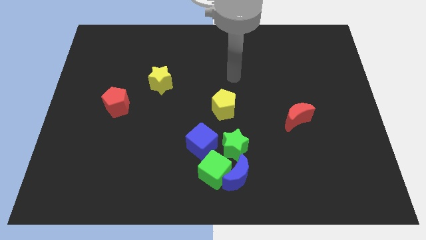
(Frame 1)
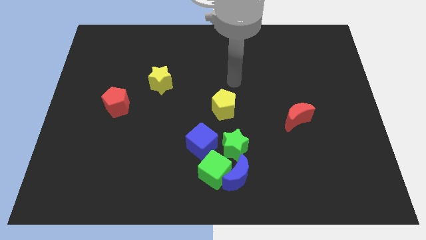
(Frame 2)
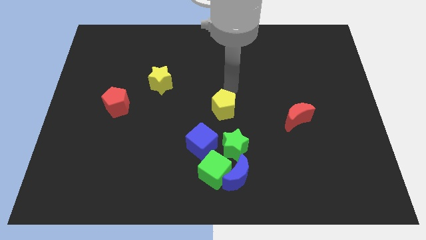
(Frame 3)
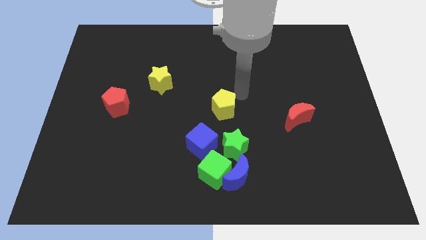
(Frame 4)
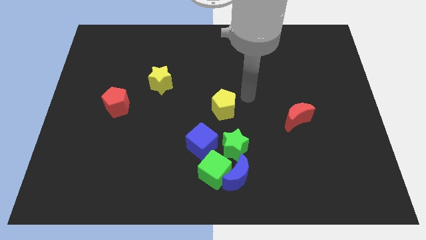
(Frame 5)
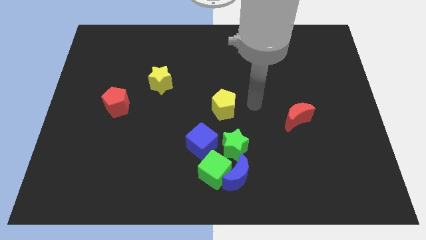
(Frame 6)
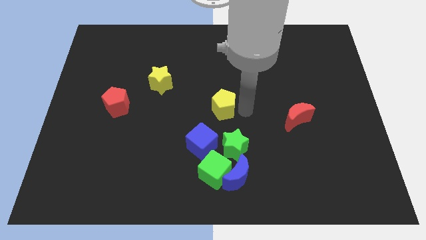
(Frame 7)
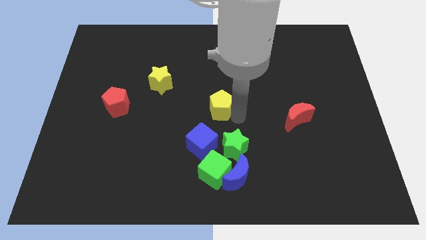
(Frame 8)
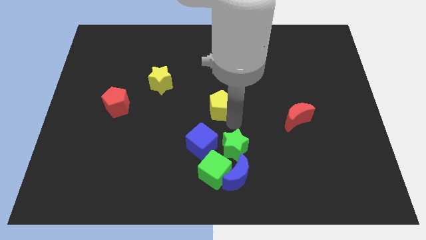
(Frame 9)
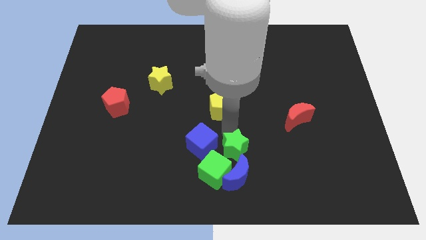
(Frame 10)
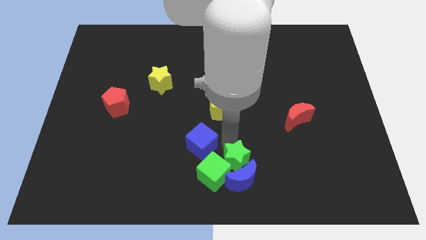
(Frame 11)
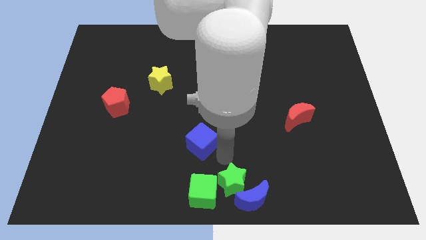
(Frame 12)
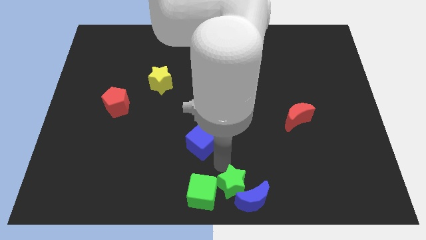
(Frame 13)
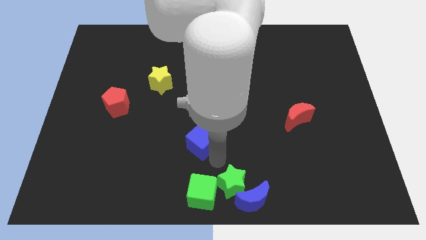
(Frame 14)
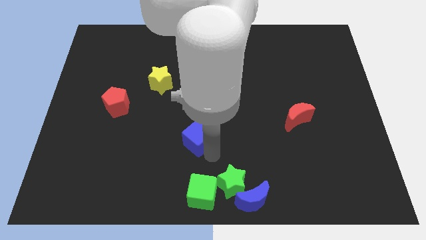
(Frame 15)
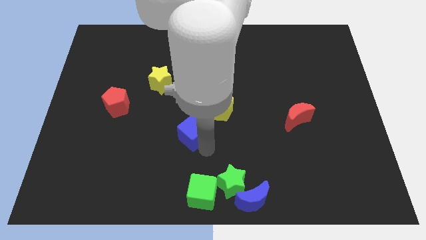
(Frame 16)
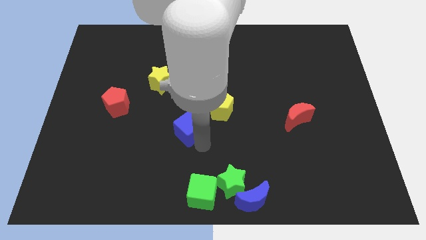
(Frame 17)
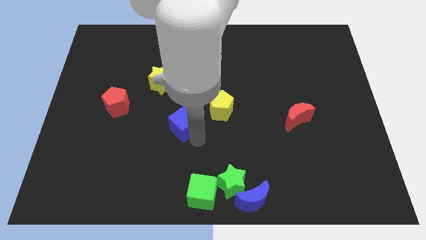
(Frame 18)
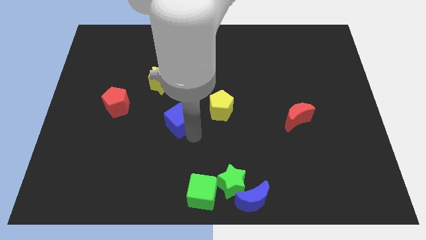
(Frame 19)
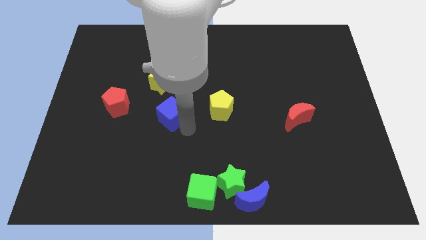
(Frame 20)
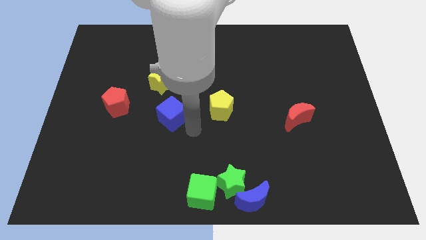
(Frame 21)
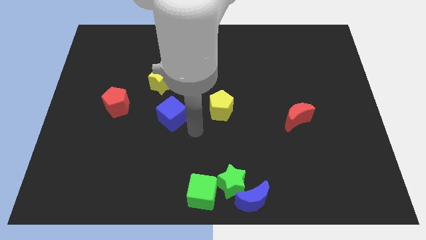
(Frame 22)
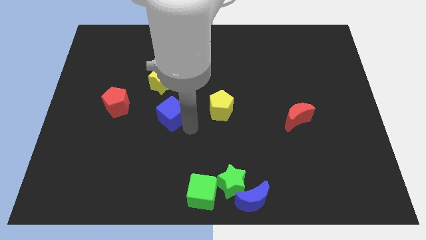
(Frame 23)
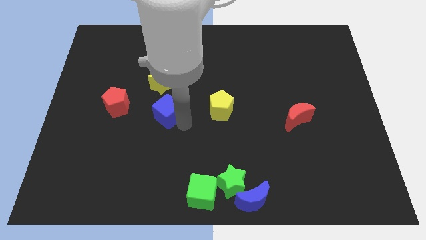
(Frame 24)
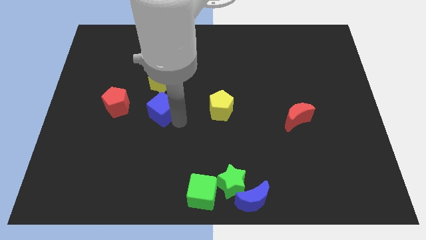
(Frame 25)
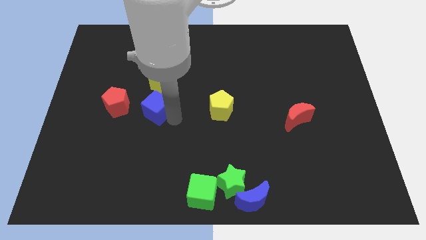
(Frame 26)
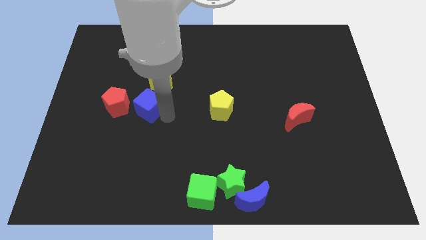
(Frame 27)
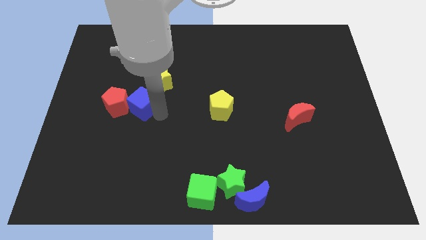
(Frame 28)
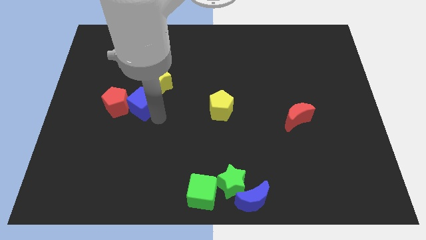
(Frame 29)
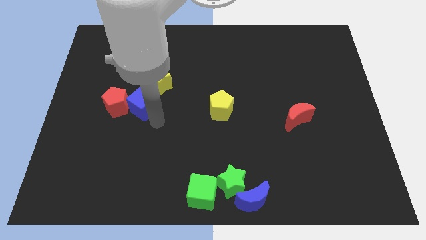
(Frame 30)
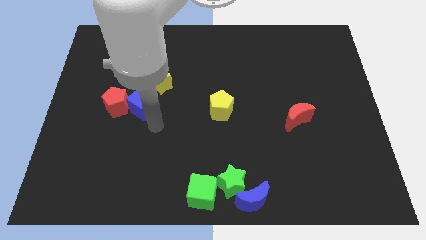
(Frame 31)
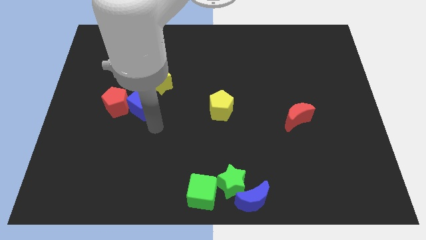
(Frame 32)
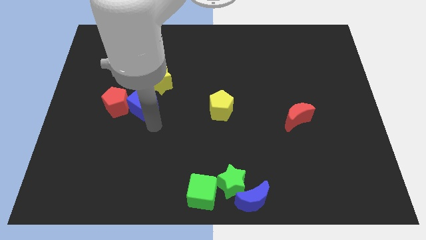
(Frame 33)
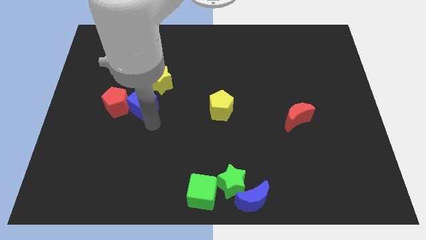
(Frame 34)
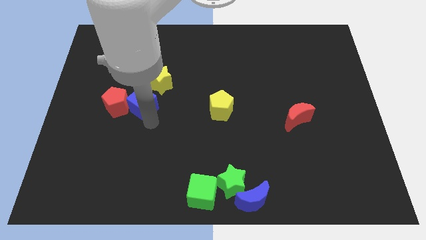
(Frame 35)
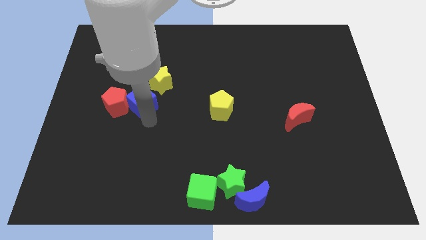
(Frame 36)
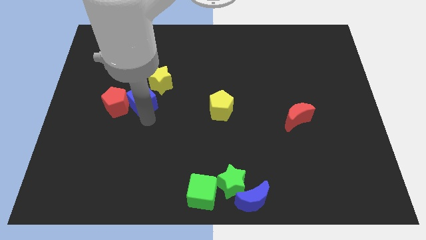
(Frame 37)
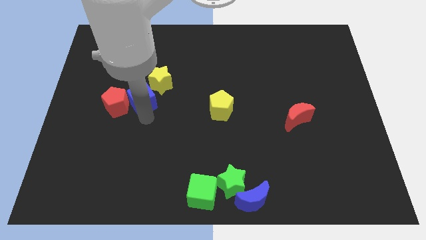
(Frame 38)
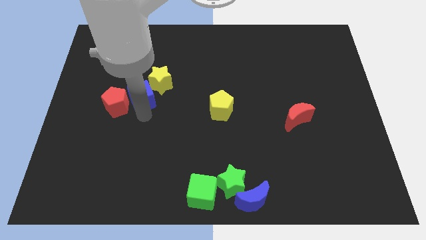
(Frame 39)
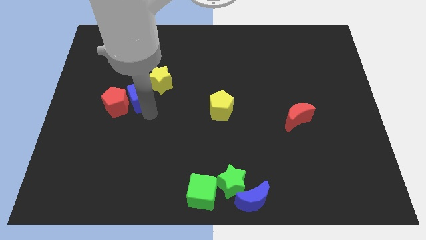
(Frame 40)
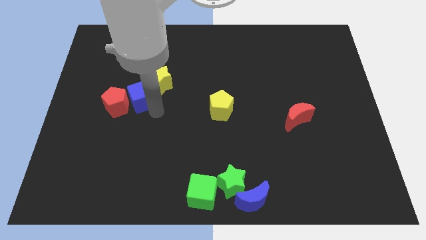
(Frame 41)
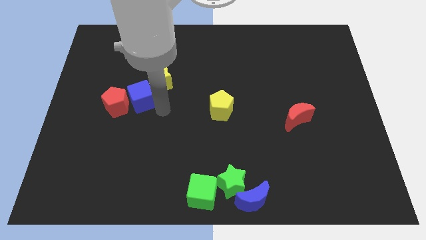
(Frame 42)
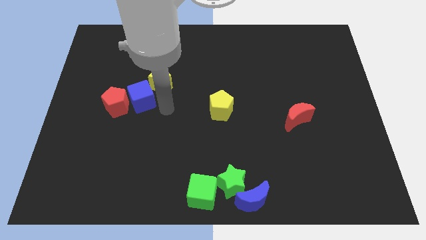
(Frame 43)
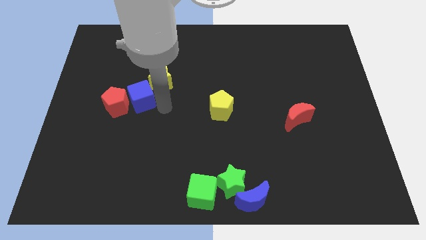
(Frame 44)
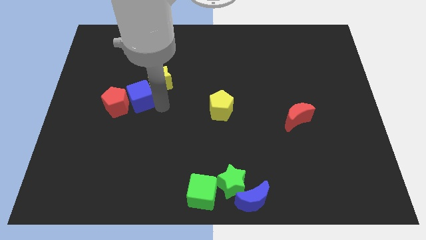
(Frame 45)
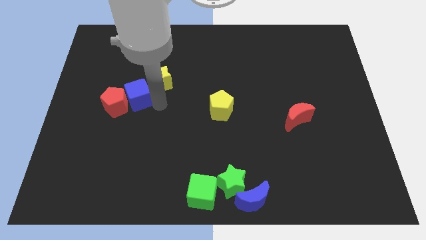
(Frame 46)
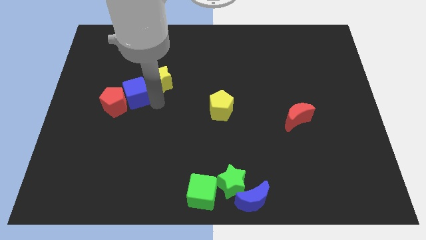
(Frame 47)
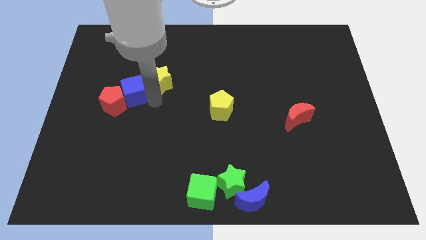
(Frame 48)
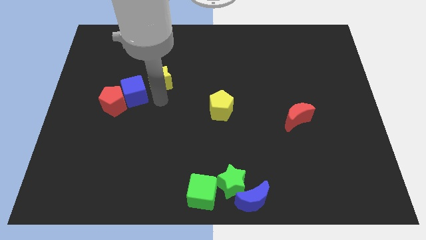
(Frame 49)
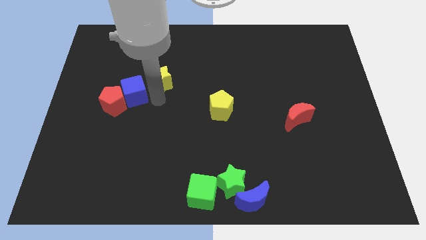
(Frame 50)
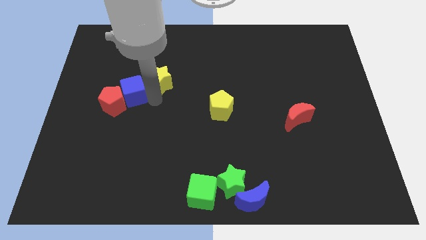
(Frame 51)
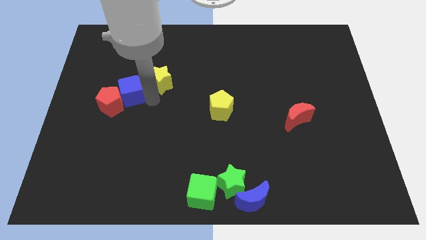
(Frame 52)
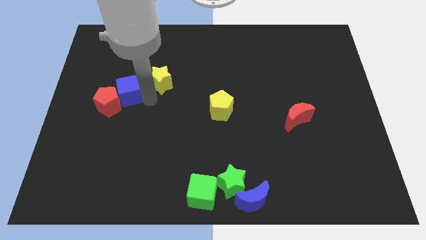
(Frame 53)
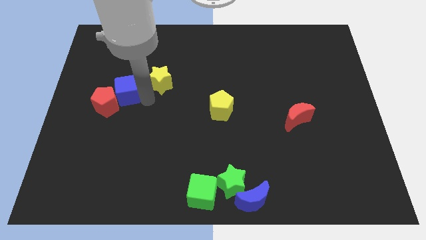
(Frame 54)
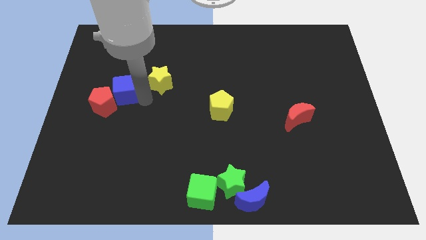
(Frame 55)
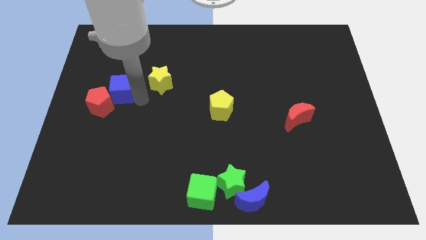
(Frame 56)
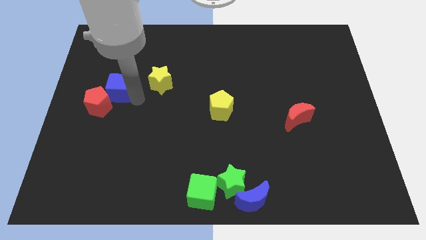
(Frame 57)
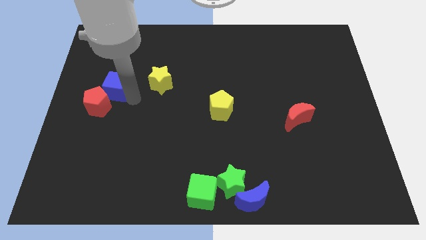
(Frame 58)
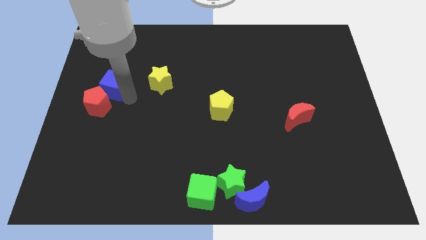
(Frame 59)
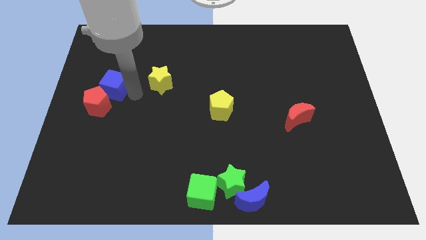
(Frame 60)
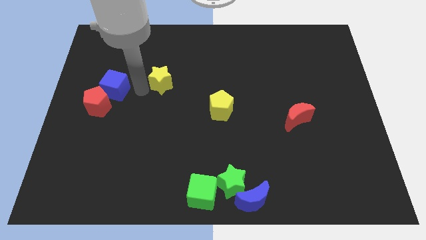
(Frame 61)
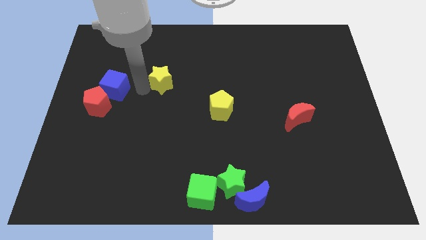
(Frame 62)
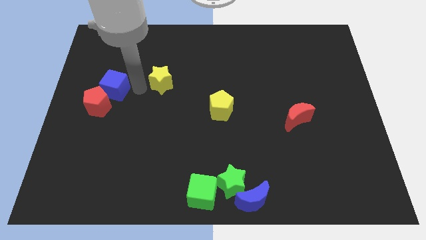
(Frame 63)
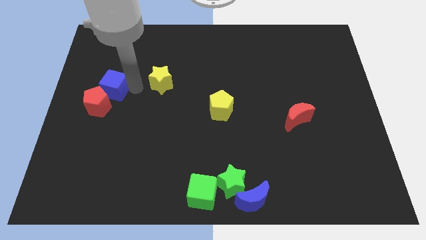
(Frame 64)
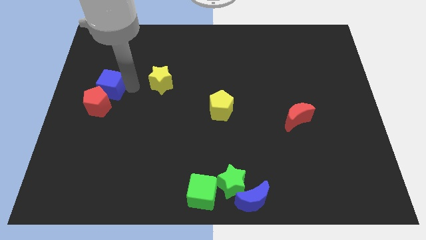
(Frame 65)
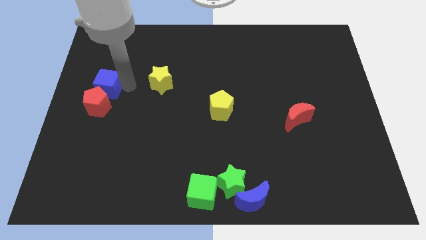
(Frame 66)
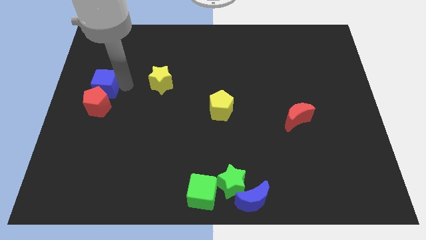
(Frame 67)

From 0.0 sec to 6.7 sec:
move the blue cube to the top left of the red pentagon

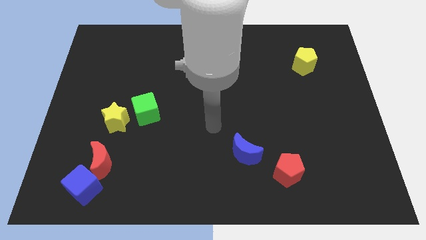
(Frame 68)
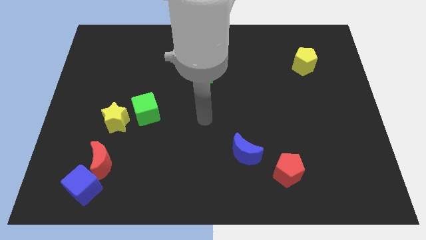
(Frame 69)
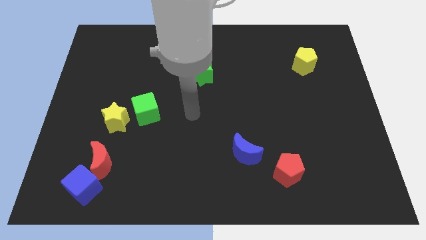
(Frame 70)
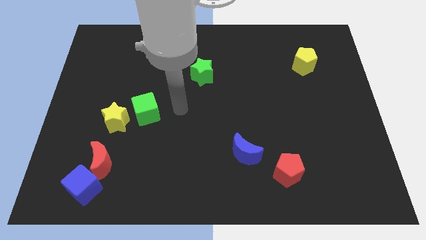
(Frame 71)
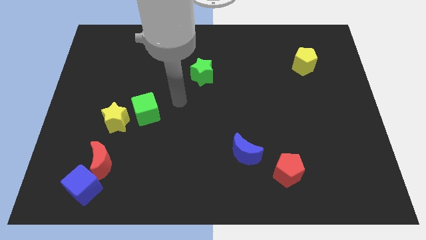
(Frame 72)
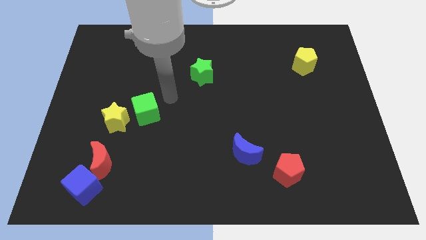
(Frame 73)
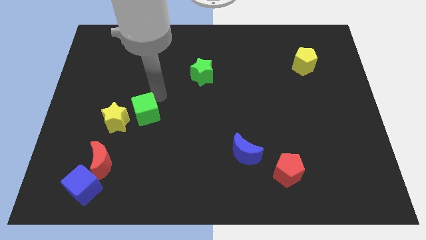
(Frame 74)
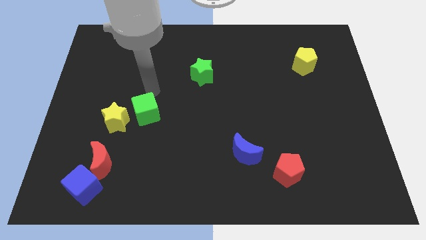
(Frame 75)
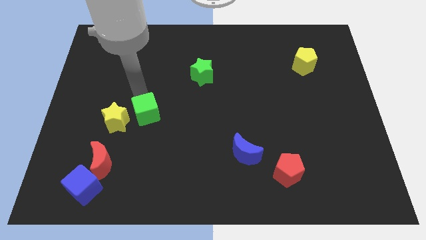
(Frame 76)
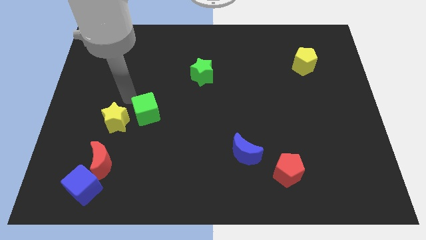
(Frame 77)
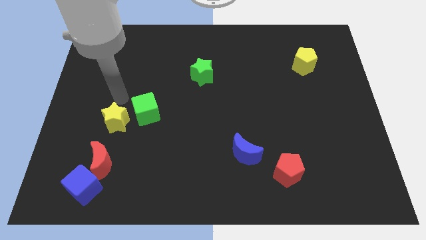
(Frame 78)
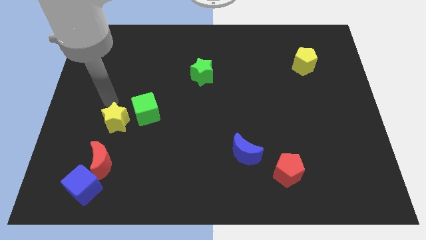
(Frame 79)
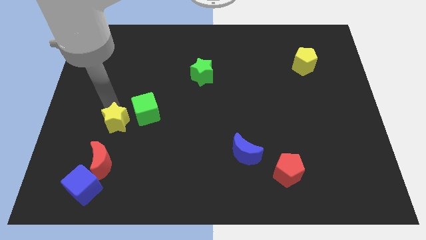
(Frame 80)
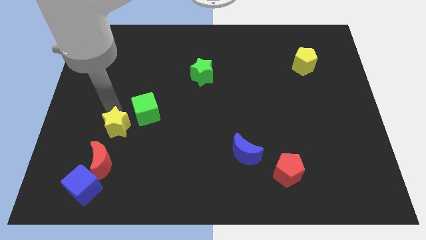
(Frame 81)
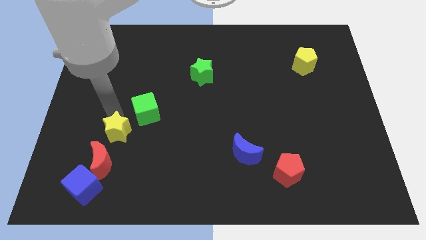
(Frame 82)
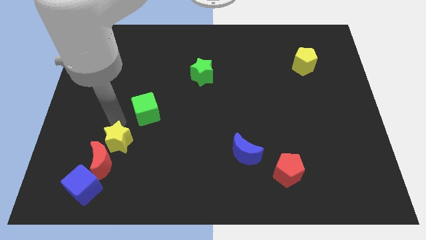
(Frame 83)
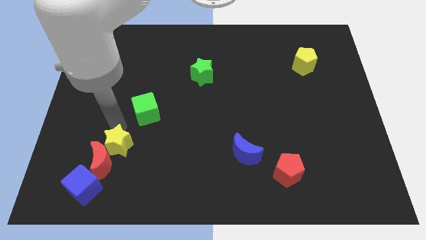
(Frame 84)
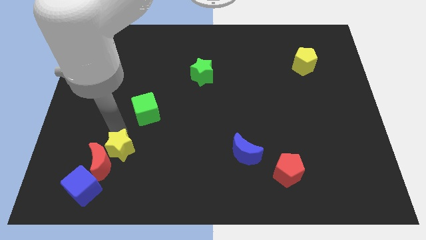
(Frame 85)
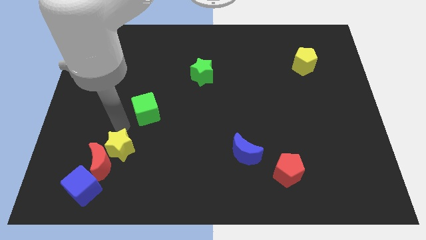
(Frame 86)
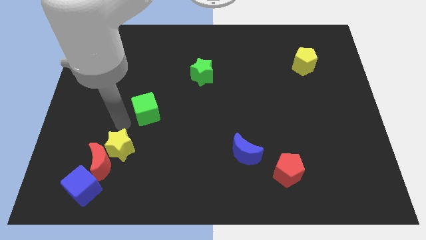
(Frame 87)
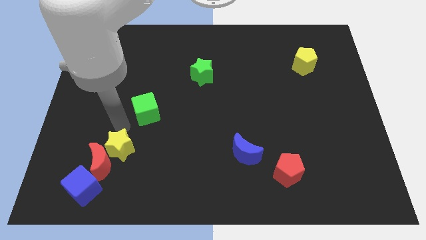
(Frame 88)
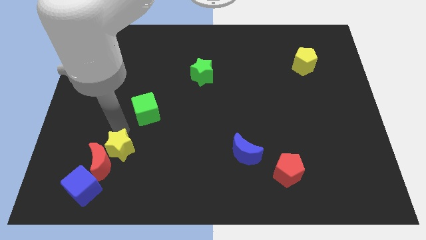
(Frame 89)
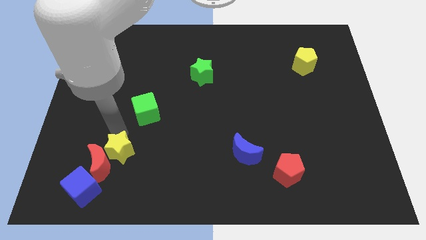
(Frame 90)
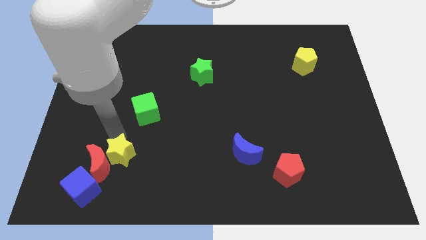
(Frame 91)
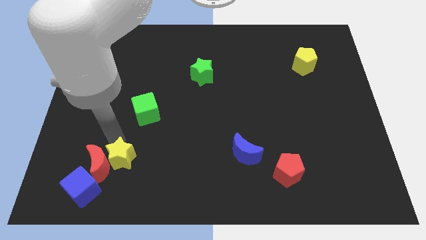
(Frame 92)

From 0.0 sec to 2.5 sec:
put the yellow star diagonally down and to the right of the red moon
